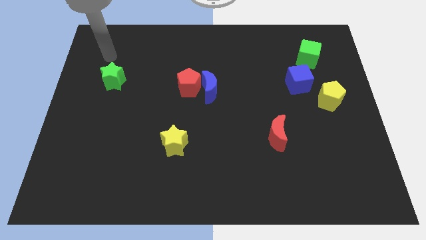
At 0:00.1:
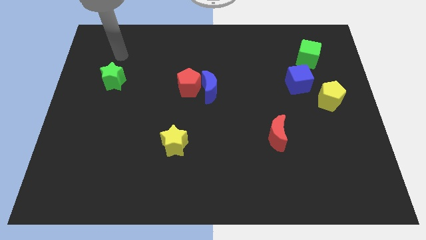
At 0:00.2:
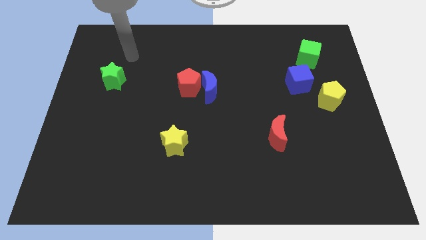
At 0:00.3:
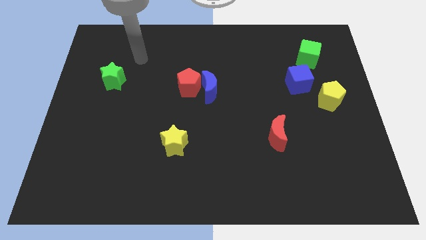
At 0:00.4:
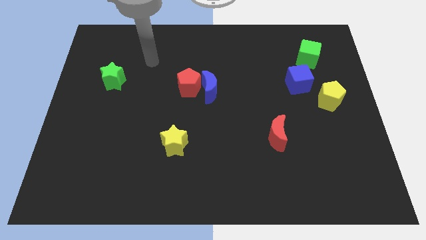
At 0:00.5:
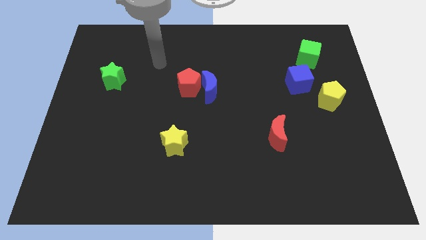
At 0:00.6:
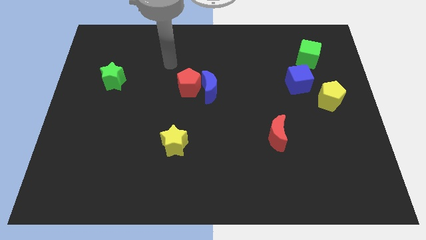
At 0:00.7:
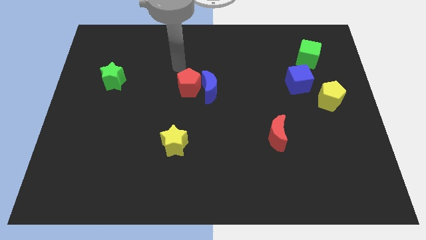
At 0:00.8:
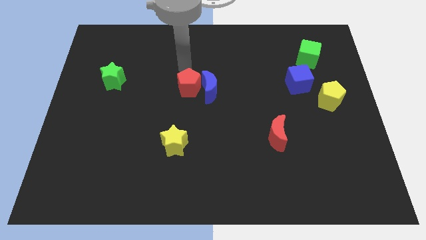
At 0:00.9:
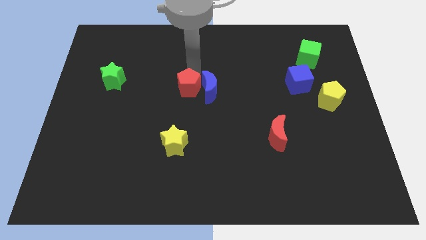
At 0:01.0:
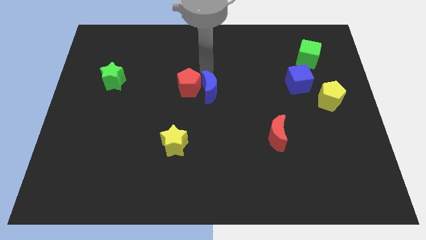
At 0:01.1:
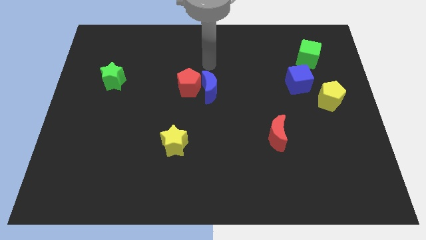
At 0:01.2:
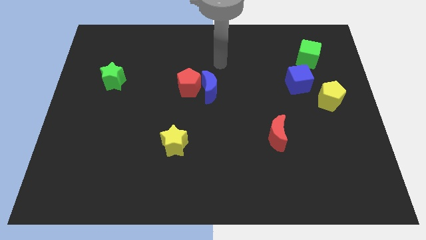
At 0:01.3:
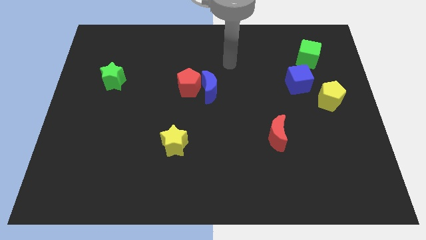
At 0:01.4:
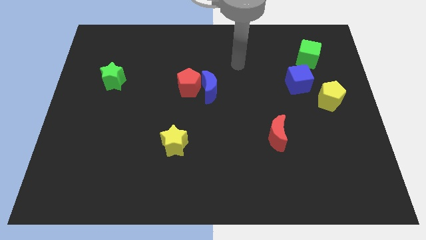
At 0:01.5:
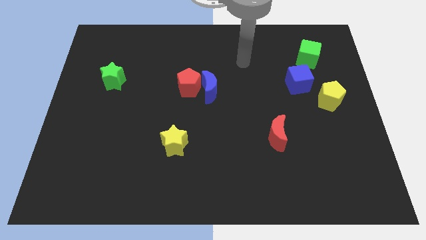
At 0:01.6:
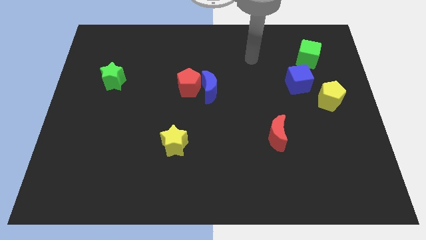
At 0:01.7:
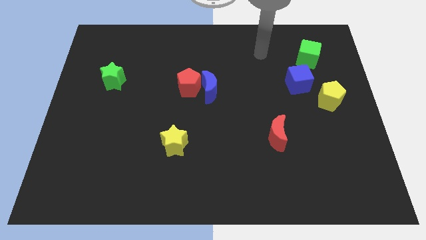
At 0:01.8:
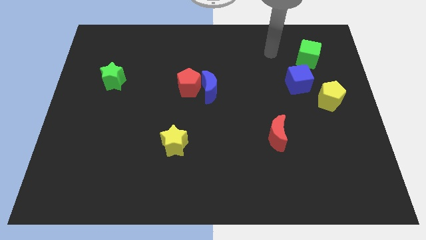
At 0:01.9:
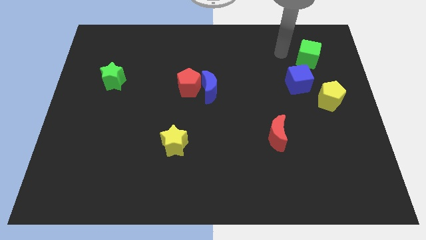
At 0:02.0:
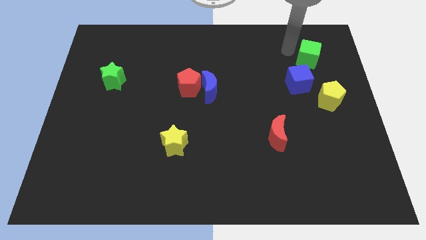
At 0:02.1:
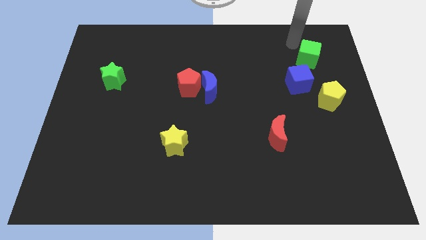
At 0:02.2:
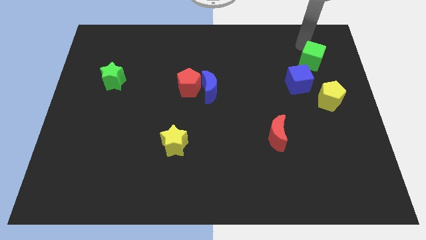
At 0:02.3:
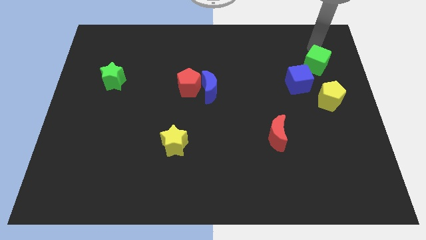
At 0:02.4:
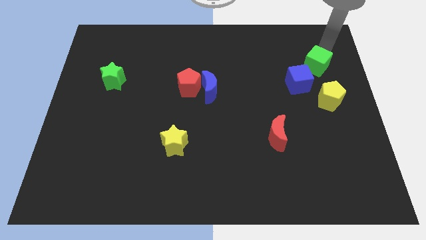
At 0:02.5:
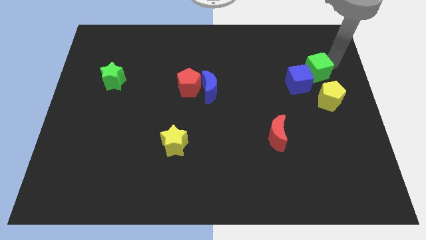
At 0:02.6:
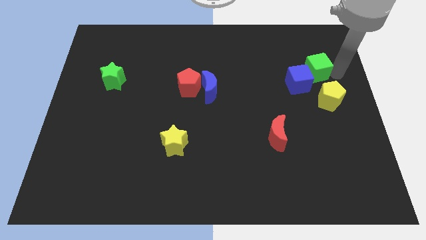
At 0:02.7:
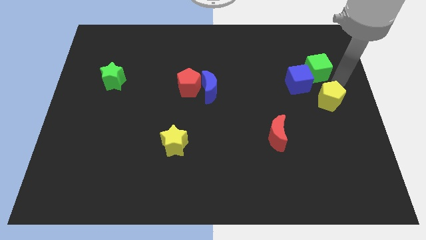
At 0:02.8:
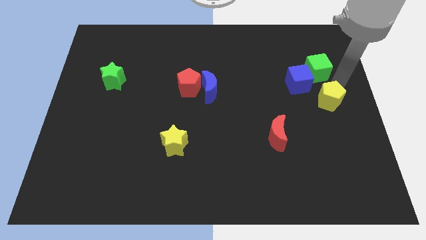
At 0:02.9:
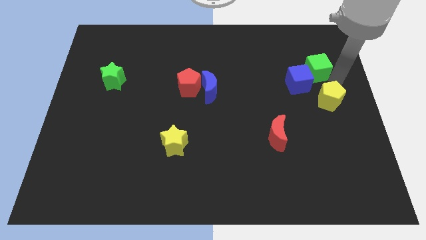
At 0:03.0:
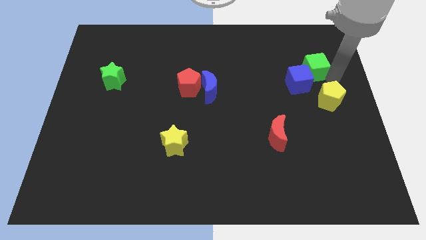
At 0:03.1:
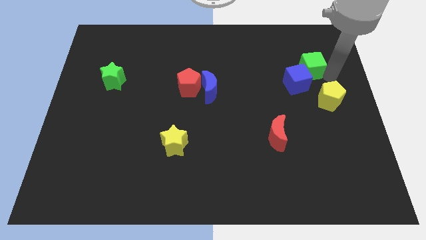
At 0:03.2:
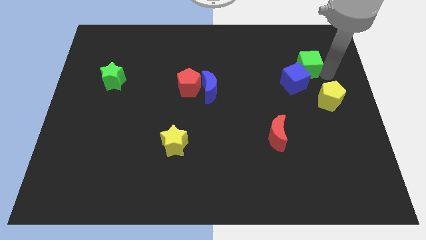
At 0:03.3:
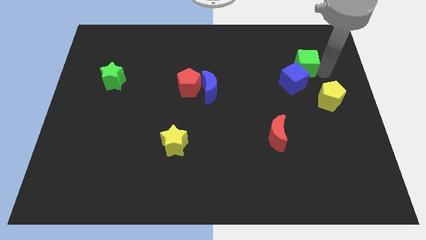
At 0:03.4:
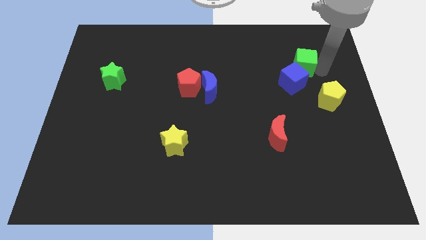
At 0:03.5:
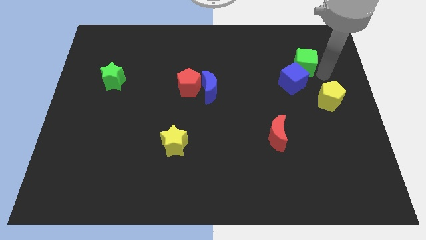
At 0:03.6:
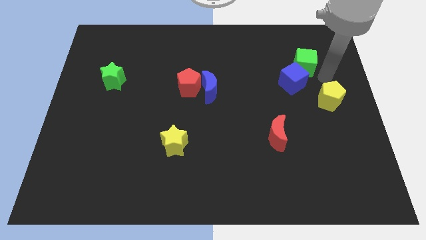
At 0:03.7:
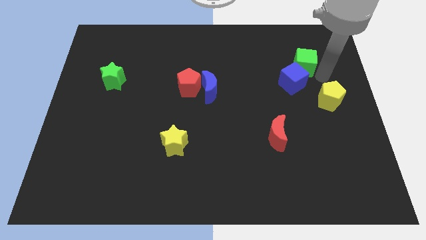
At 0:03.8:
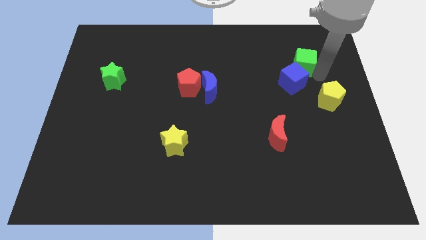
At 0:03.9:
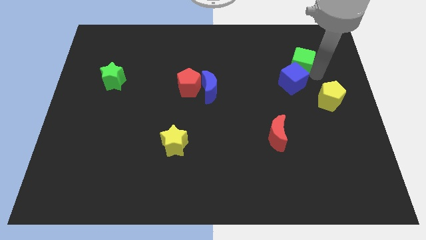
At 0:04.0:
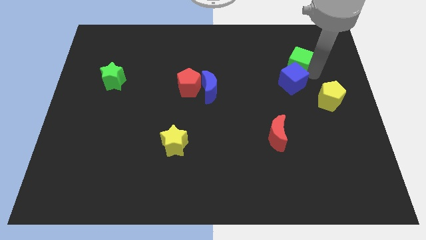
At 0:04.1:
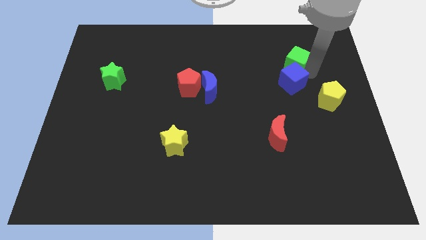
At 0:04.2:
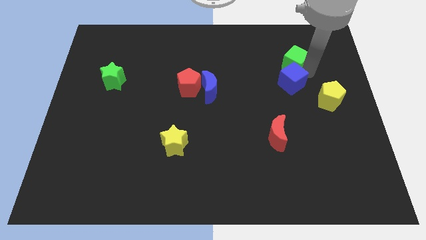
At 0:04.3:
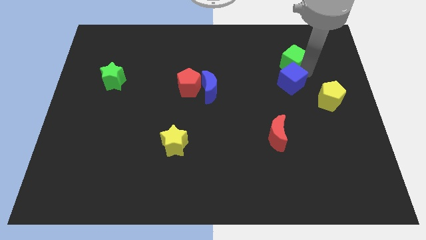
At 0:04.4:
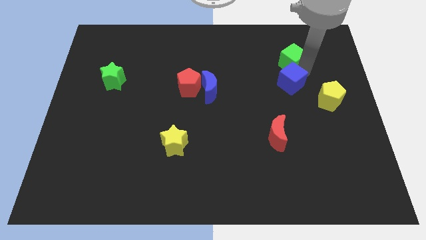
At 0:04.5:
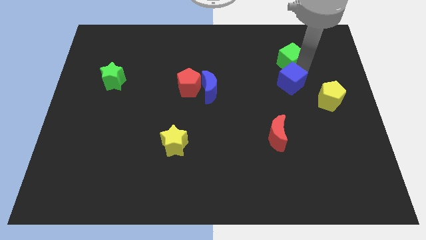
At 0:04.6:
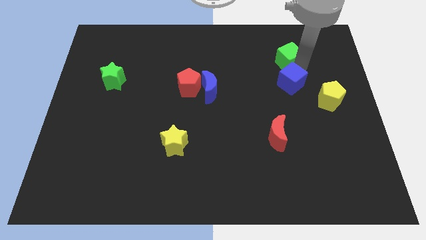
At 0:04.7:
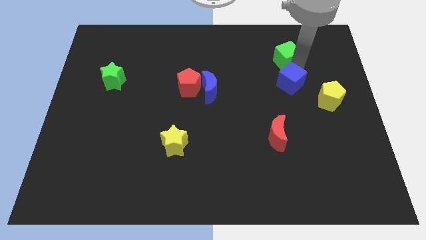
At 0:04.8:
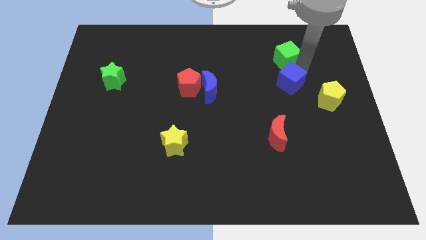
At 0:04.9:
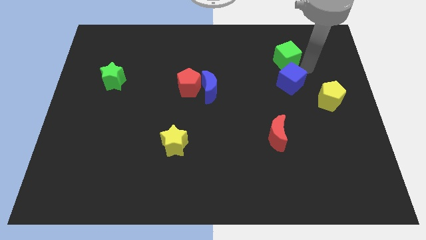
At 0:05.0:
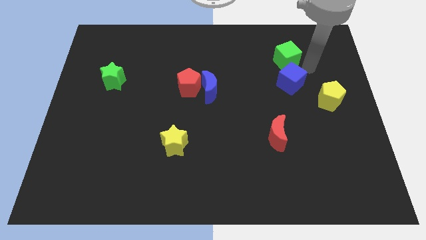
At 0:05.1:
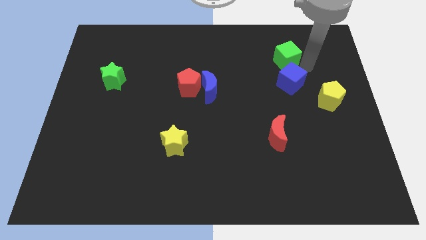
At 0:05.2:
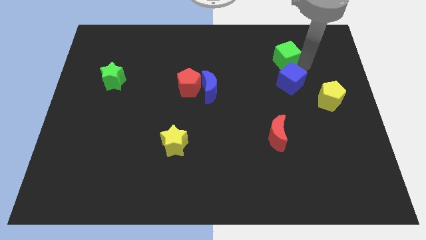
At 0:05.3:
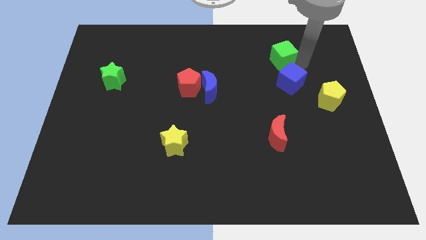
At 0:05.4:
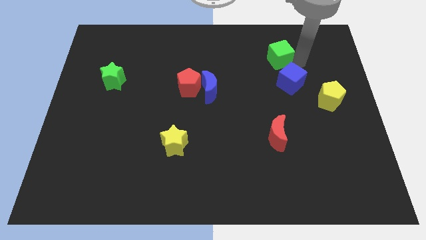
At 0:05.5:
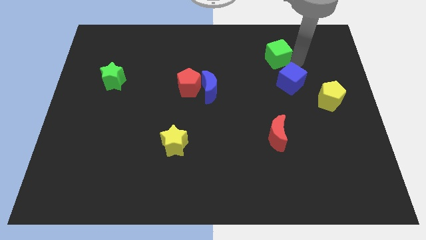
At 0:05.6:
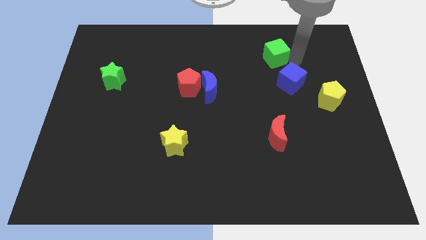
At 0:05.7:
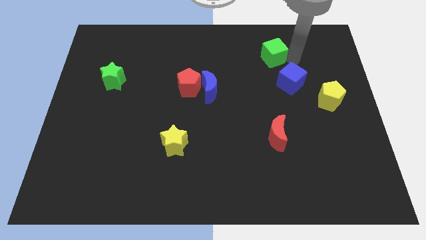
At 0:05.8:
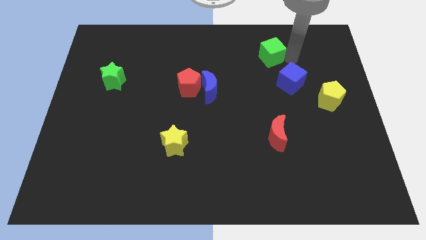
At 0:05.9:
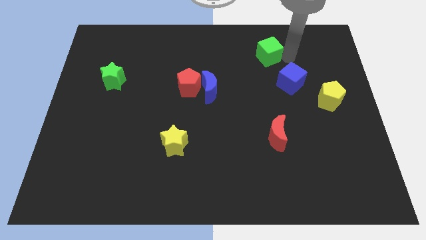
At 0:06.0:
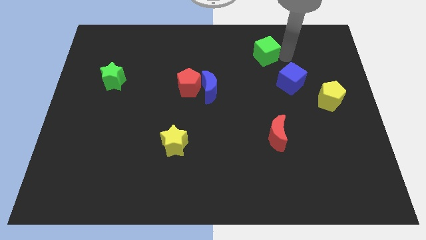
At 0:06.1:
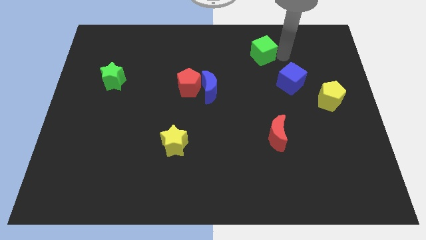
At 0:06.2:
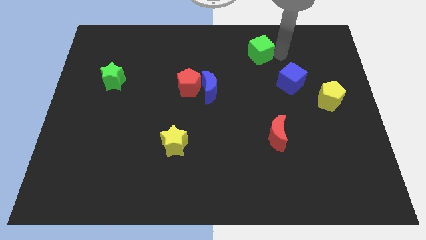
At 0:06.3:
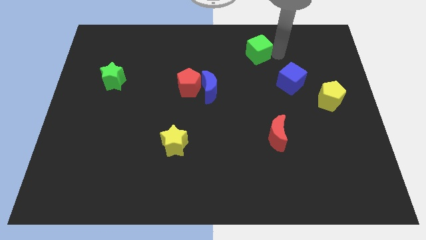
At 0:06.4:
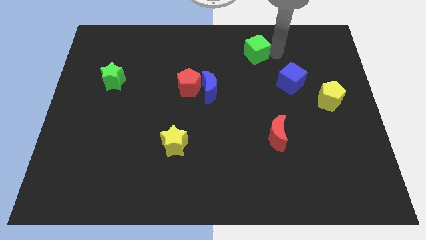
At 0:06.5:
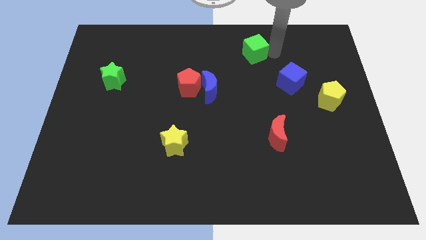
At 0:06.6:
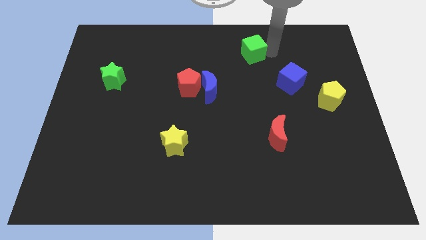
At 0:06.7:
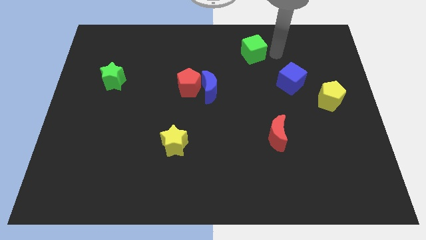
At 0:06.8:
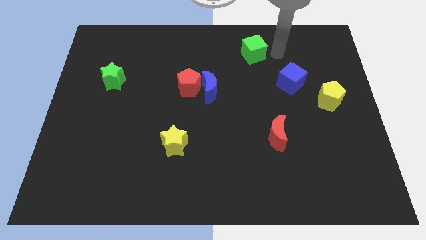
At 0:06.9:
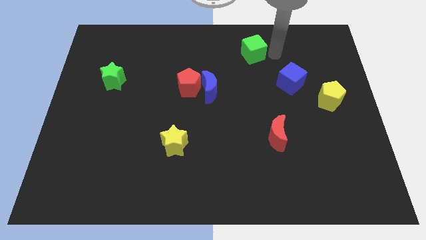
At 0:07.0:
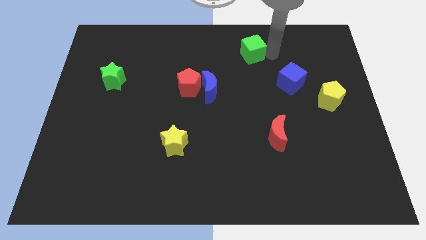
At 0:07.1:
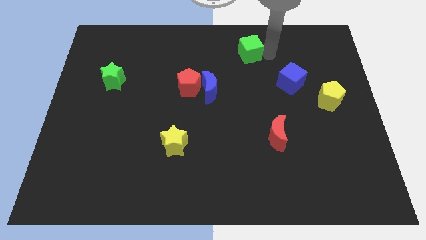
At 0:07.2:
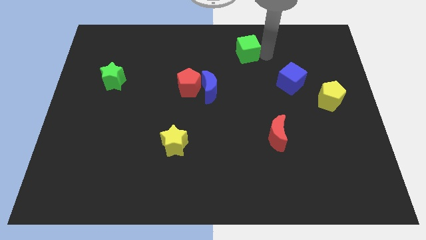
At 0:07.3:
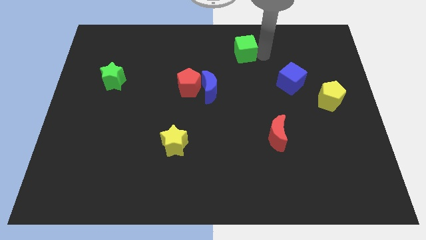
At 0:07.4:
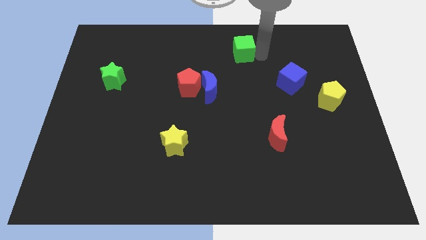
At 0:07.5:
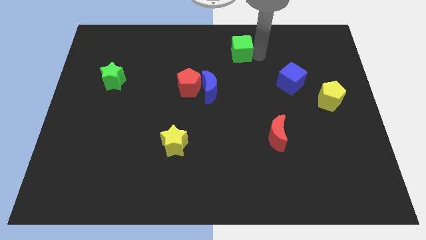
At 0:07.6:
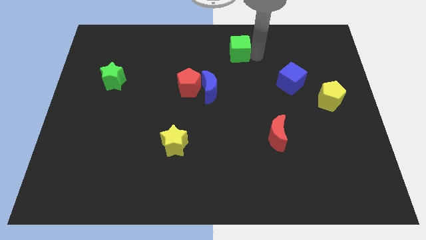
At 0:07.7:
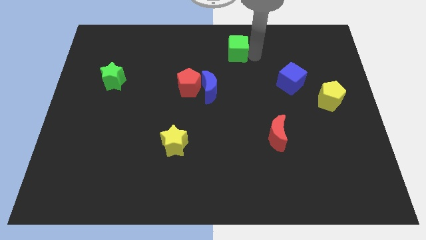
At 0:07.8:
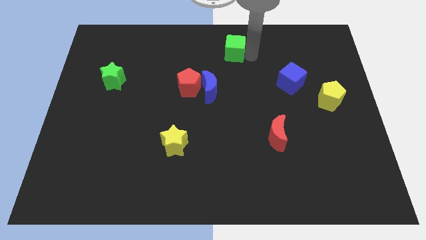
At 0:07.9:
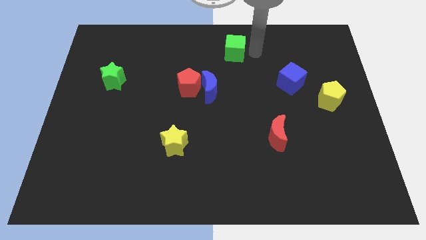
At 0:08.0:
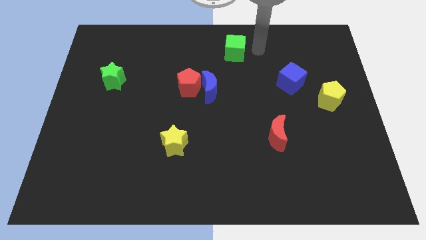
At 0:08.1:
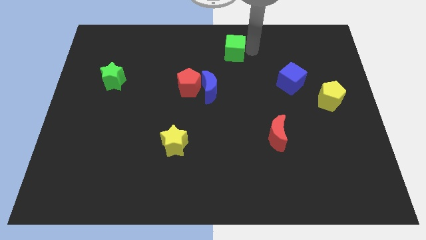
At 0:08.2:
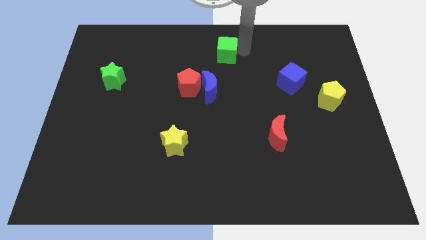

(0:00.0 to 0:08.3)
push the green cube to the left
